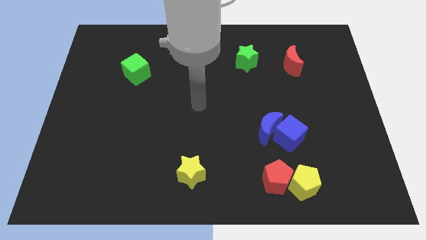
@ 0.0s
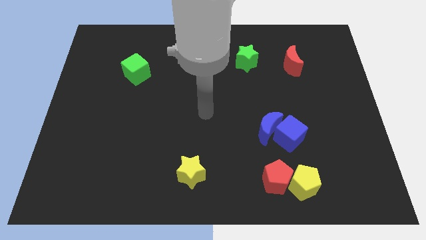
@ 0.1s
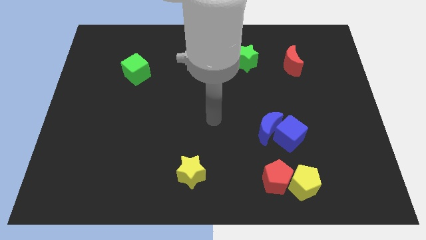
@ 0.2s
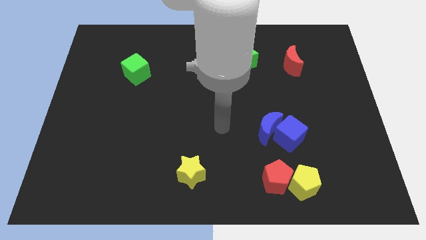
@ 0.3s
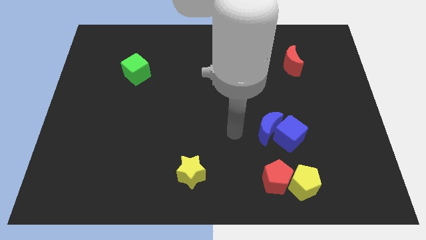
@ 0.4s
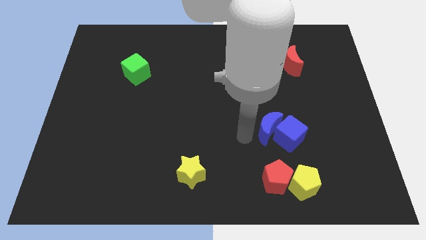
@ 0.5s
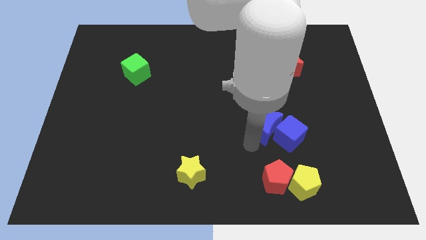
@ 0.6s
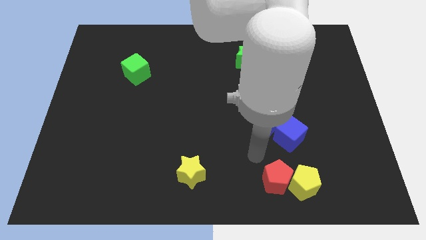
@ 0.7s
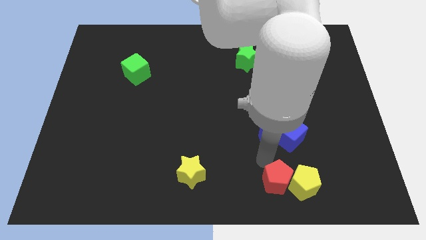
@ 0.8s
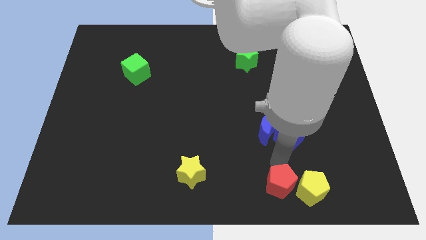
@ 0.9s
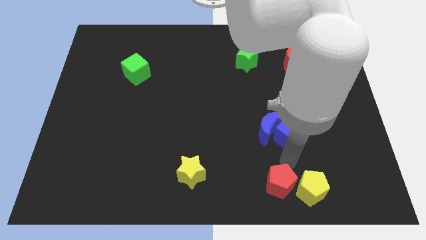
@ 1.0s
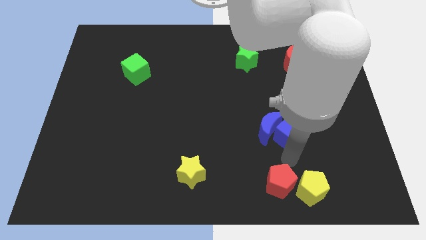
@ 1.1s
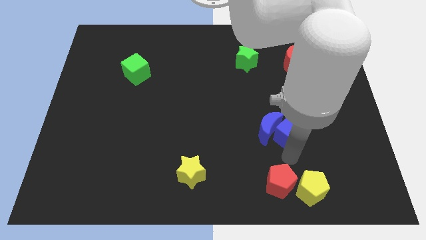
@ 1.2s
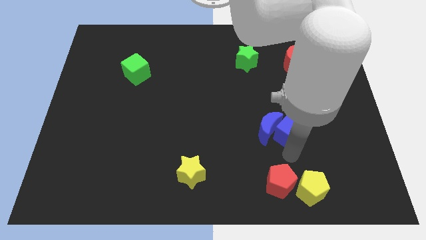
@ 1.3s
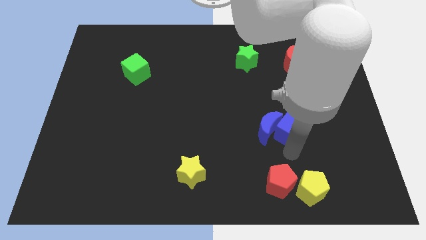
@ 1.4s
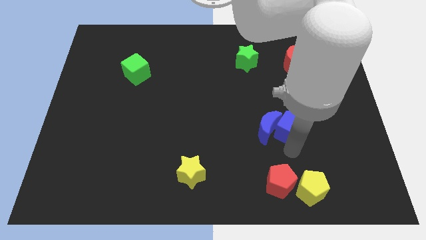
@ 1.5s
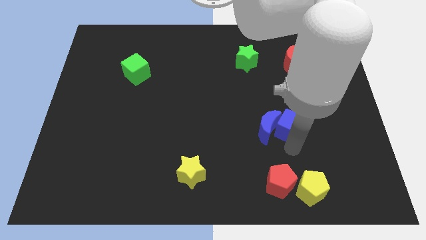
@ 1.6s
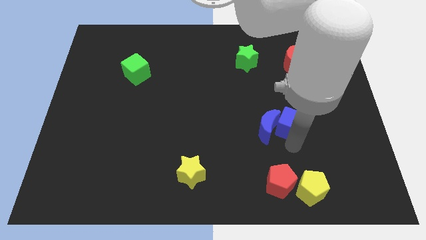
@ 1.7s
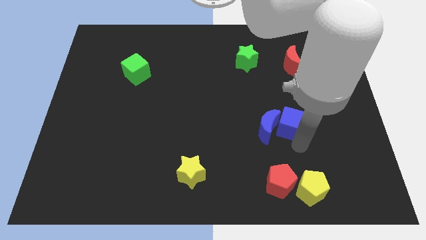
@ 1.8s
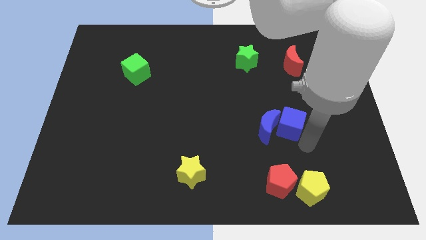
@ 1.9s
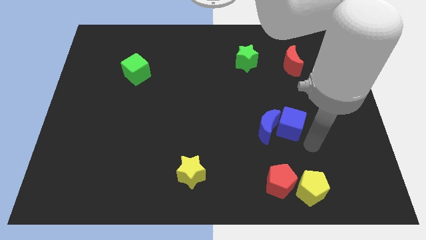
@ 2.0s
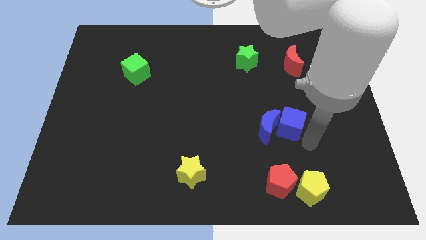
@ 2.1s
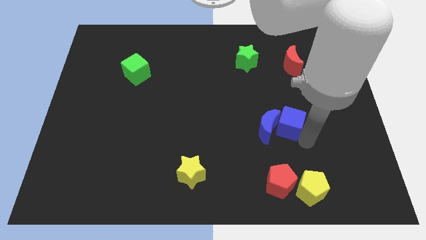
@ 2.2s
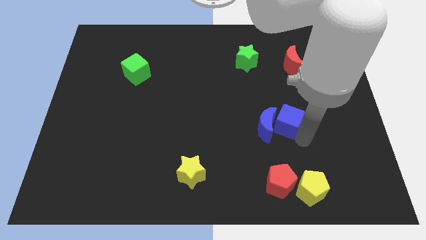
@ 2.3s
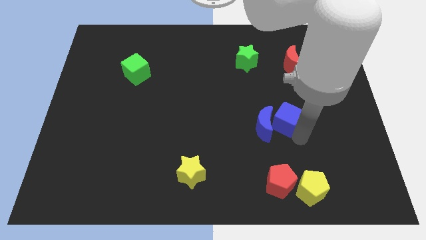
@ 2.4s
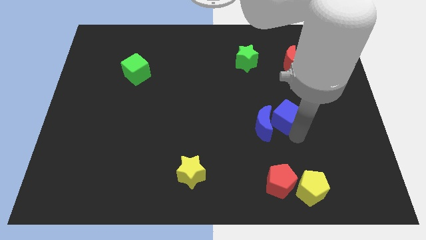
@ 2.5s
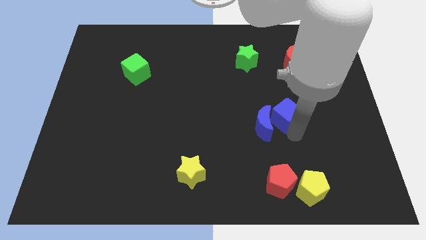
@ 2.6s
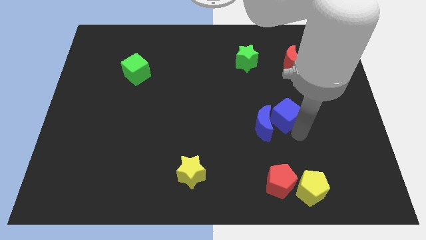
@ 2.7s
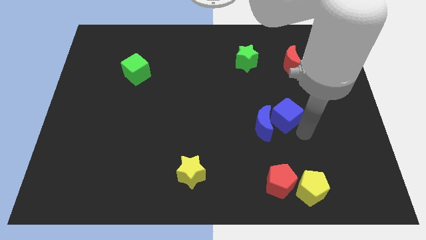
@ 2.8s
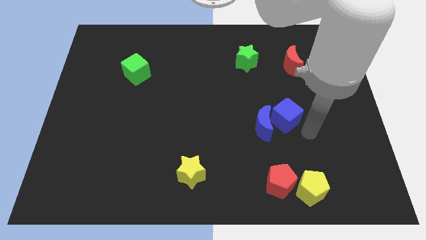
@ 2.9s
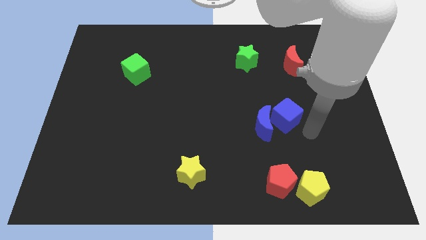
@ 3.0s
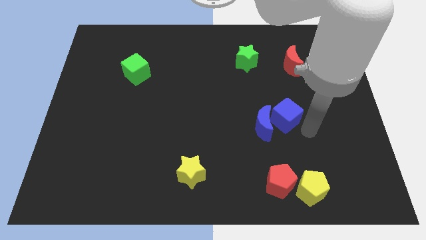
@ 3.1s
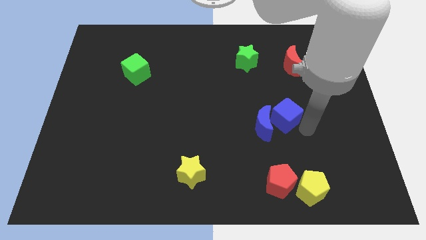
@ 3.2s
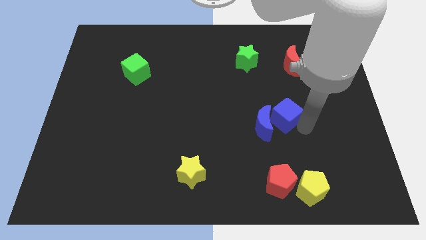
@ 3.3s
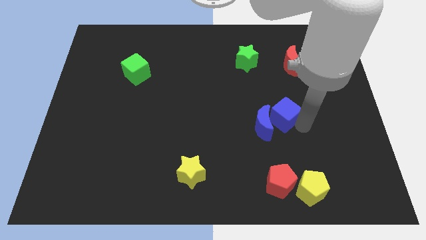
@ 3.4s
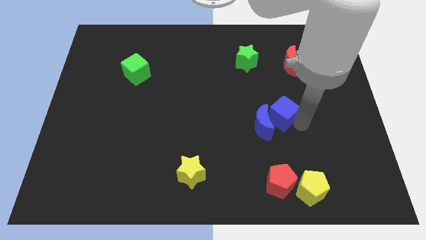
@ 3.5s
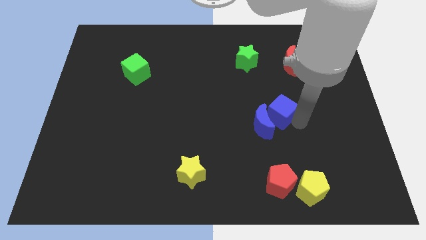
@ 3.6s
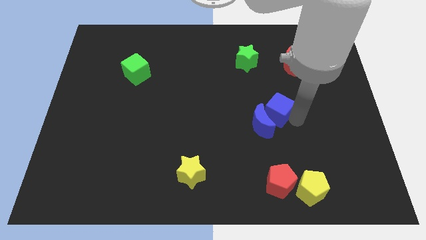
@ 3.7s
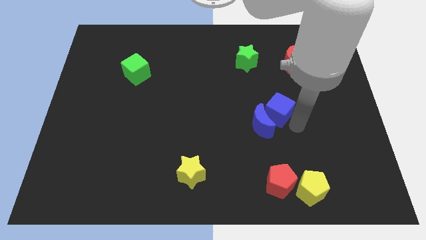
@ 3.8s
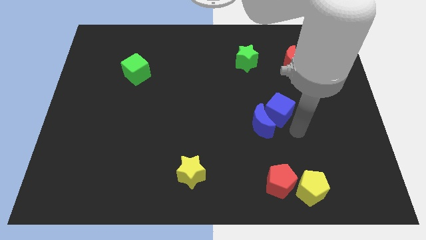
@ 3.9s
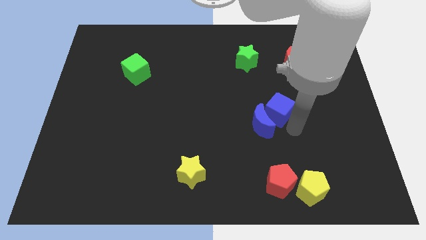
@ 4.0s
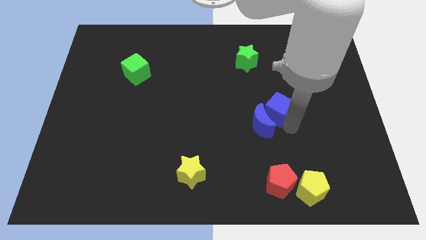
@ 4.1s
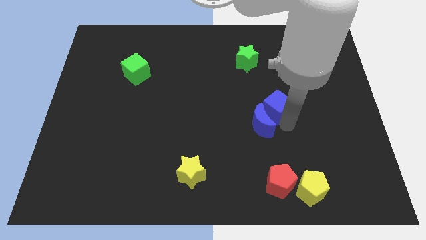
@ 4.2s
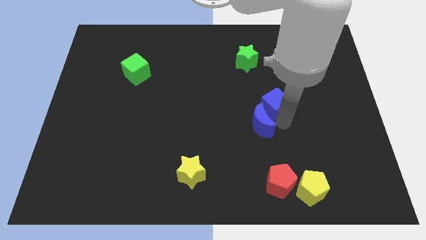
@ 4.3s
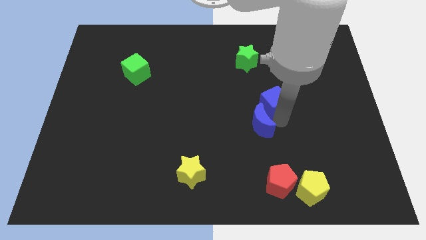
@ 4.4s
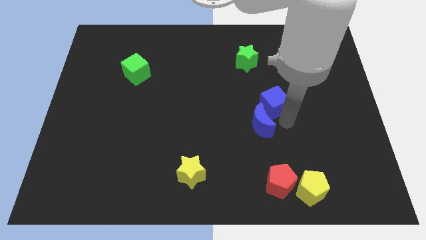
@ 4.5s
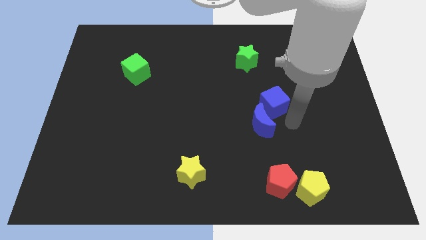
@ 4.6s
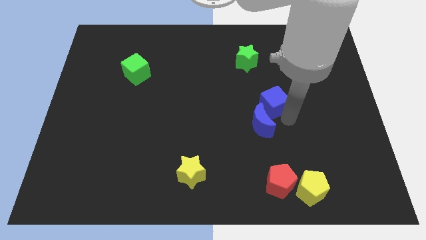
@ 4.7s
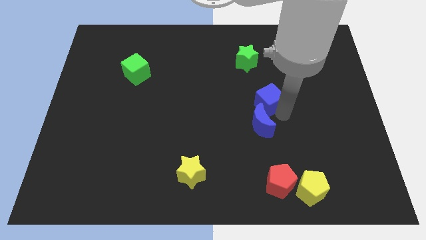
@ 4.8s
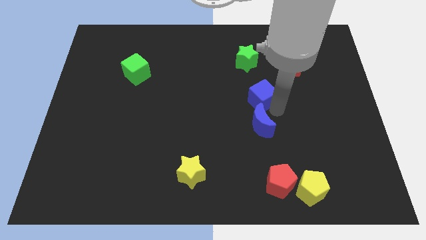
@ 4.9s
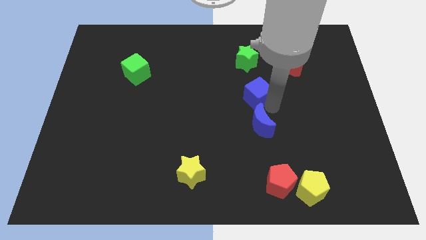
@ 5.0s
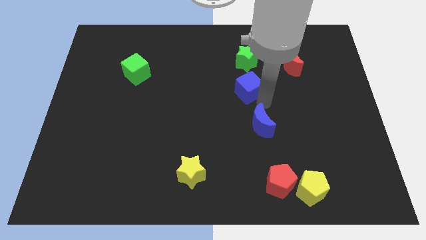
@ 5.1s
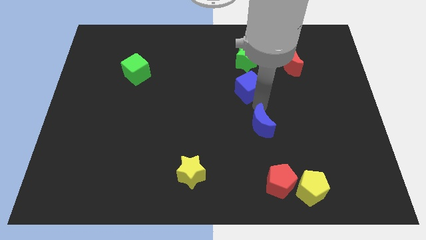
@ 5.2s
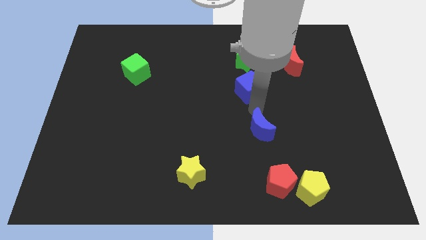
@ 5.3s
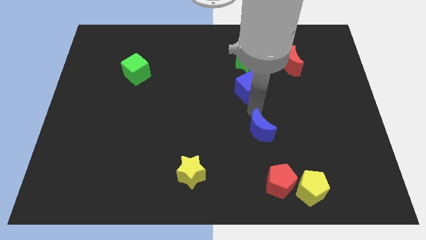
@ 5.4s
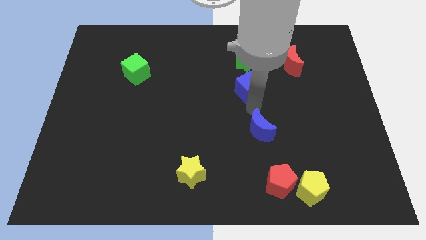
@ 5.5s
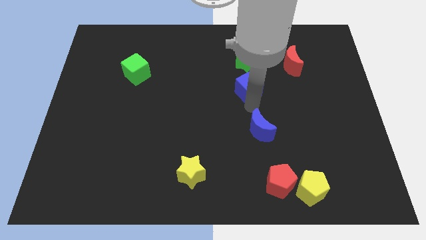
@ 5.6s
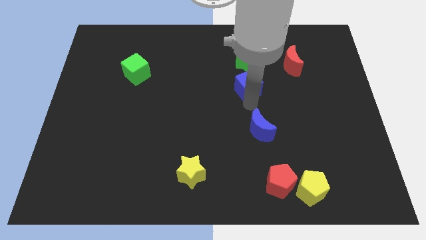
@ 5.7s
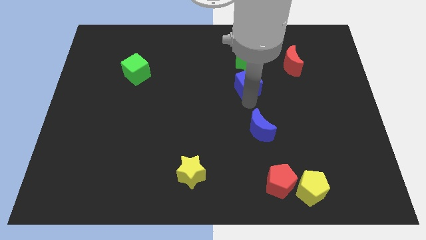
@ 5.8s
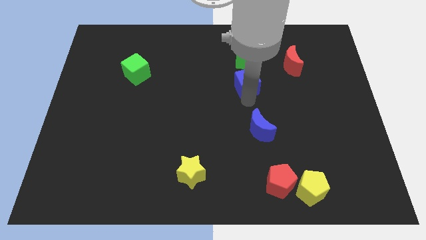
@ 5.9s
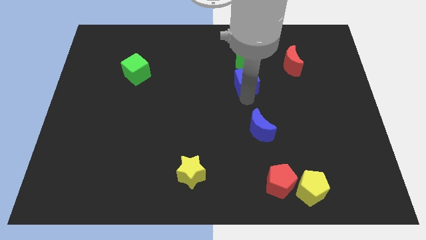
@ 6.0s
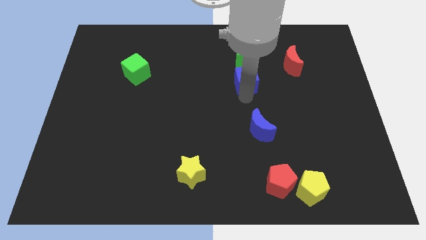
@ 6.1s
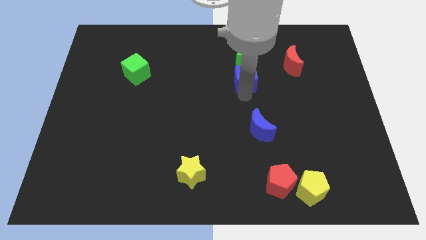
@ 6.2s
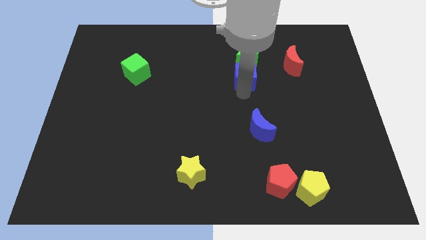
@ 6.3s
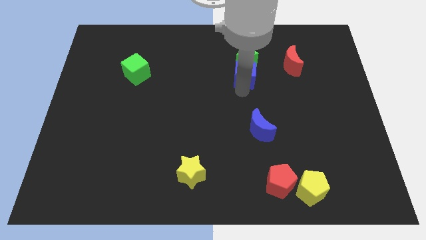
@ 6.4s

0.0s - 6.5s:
push the blue cube close to the green star
